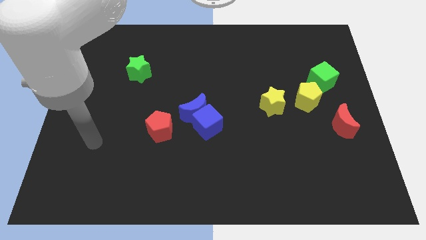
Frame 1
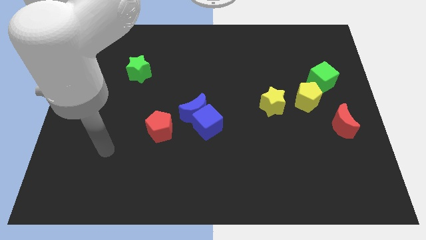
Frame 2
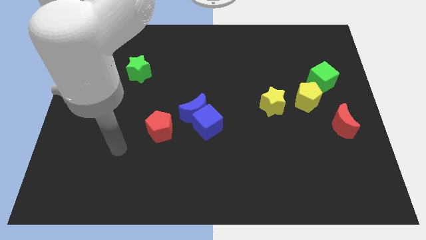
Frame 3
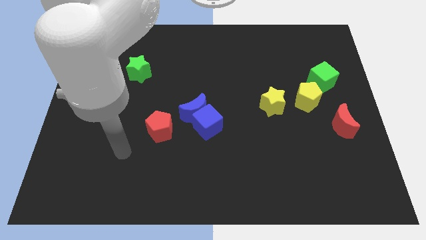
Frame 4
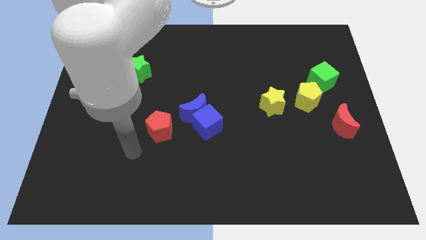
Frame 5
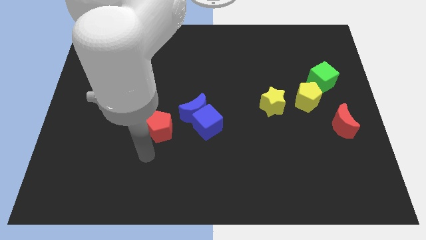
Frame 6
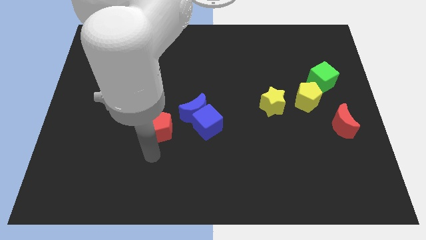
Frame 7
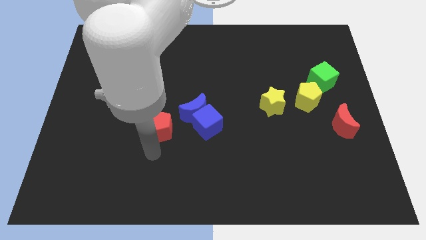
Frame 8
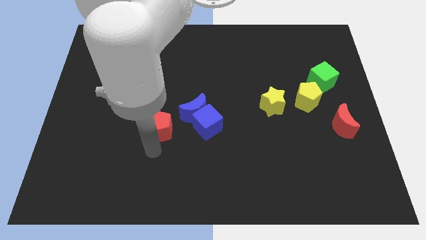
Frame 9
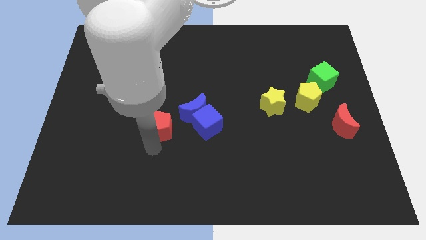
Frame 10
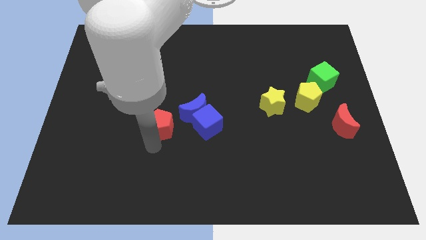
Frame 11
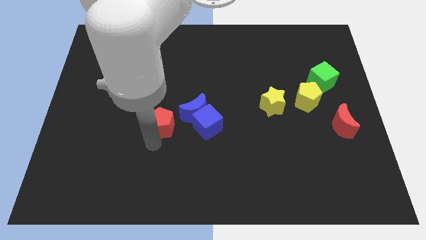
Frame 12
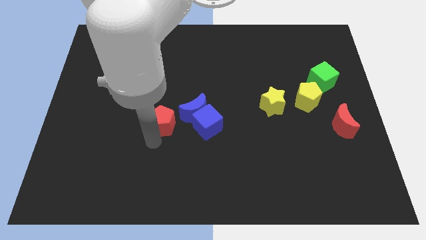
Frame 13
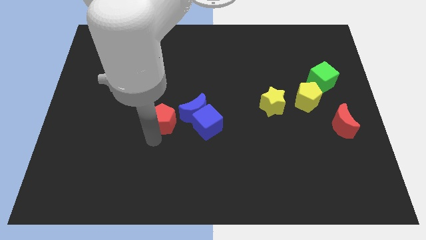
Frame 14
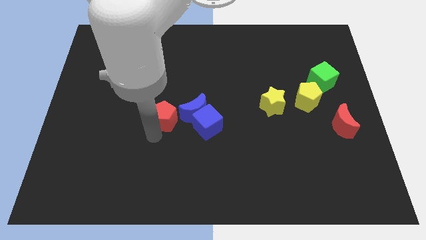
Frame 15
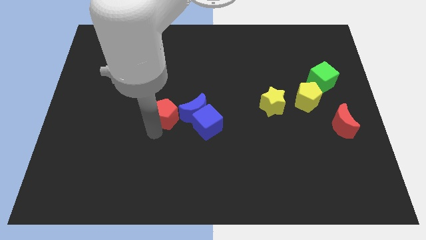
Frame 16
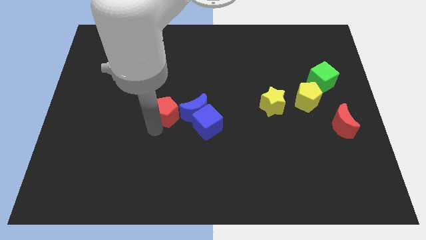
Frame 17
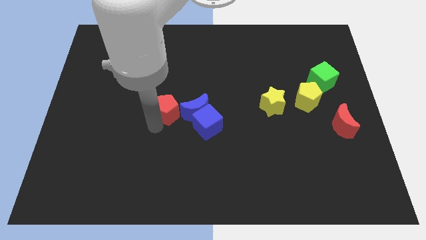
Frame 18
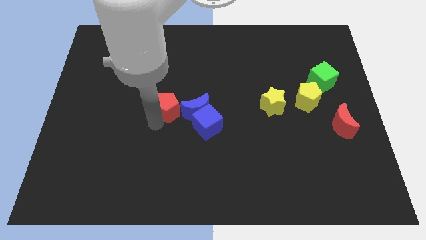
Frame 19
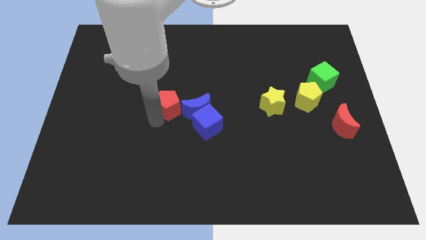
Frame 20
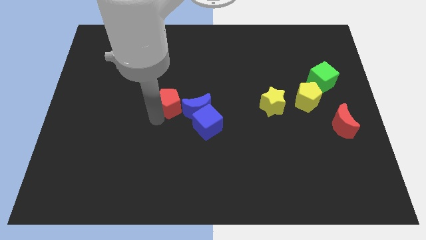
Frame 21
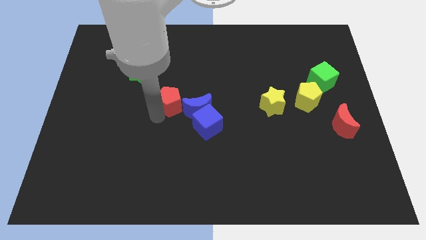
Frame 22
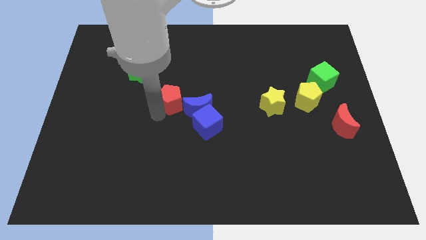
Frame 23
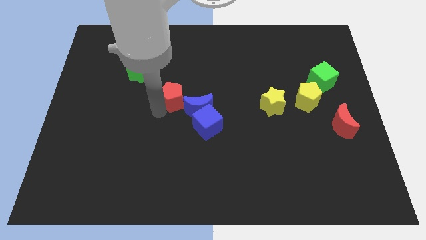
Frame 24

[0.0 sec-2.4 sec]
move the red pentagon diagonally upwards and right a little bit

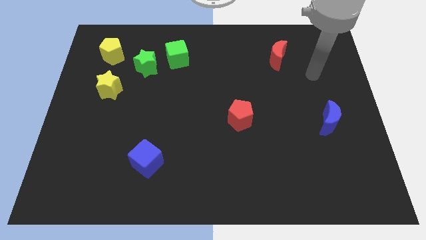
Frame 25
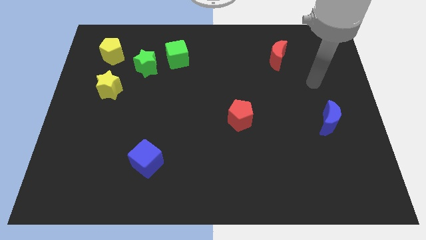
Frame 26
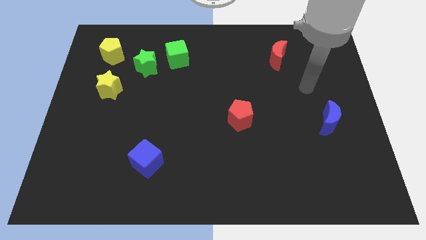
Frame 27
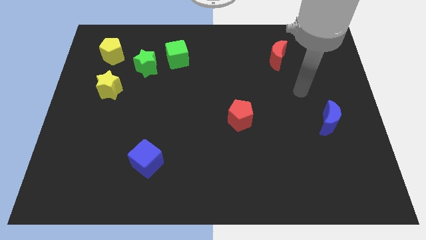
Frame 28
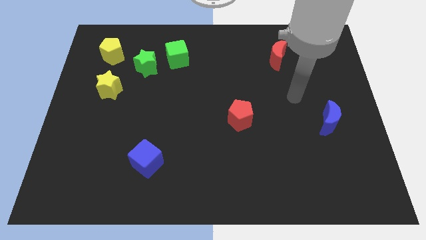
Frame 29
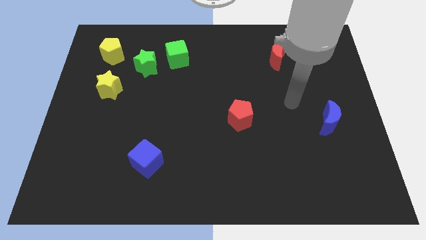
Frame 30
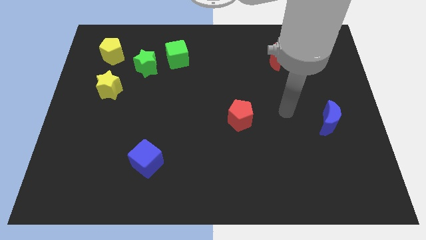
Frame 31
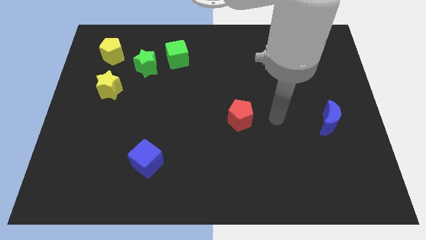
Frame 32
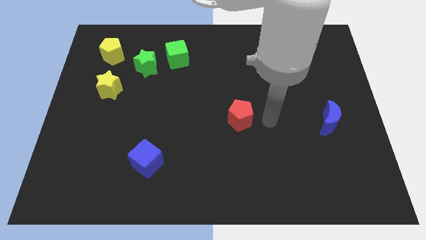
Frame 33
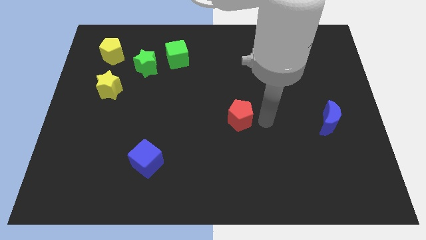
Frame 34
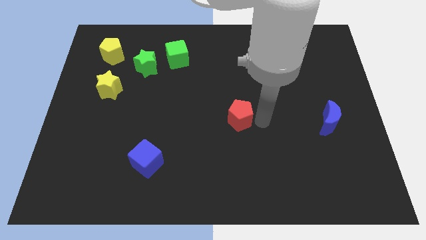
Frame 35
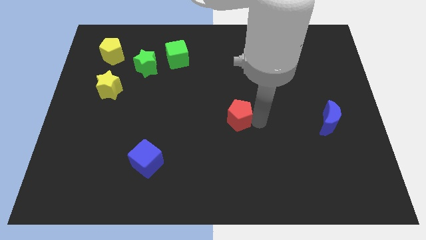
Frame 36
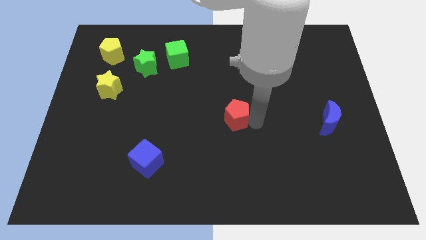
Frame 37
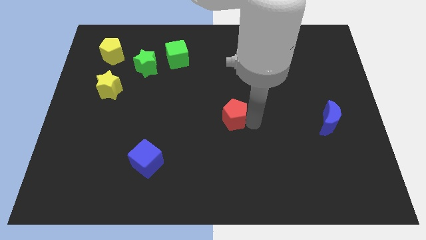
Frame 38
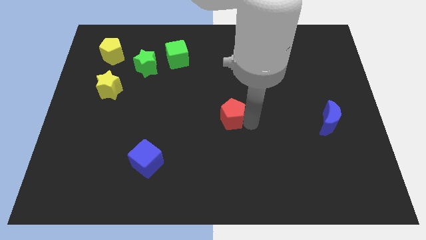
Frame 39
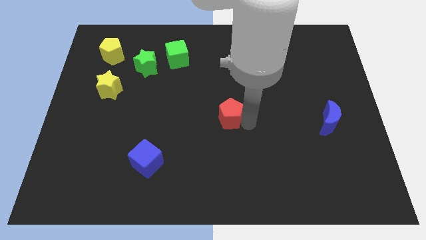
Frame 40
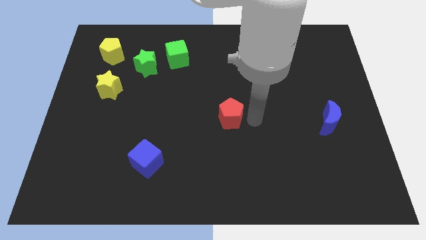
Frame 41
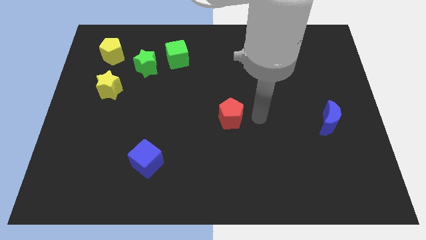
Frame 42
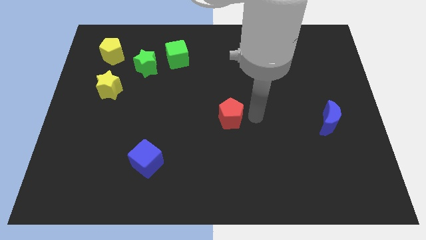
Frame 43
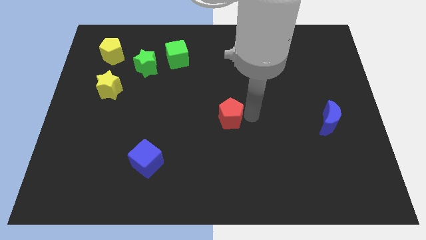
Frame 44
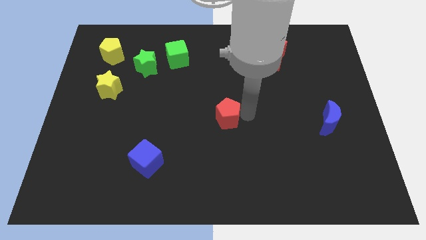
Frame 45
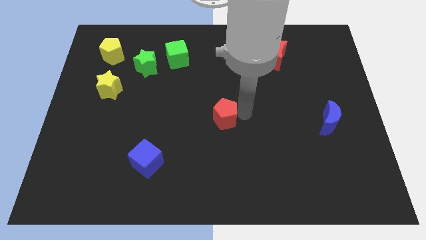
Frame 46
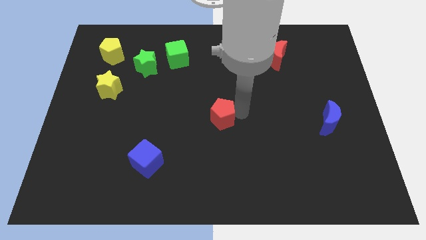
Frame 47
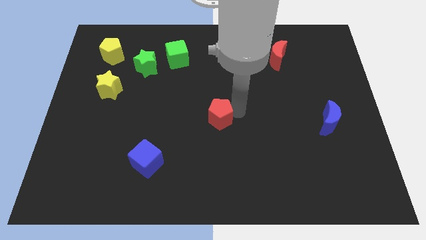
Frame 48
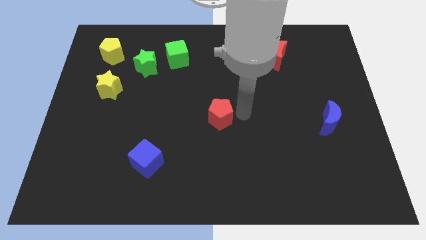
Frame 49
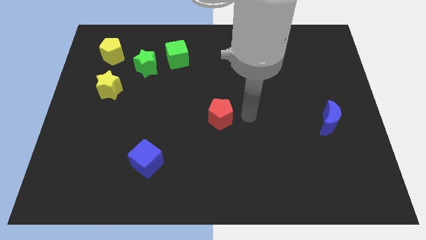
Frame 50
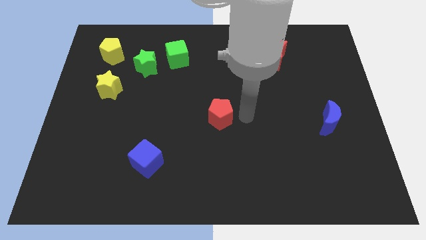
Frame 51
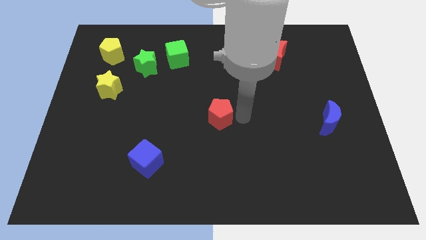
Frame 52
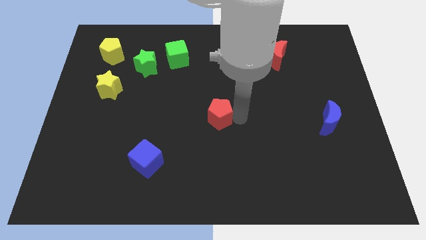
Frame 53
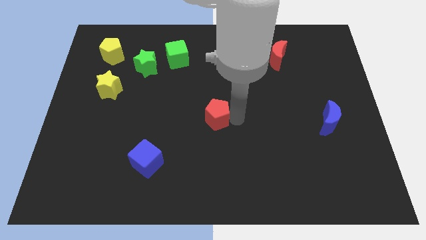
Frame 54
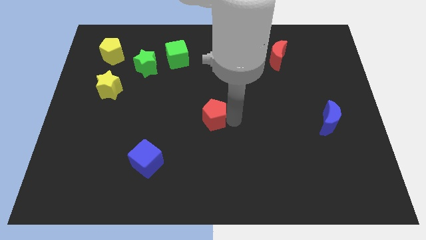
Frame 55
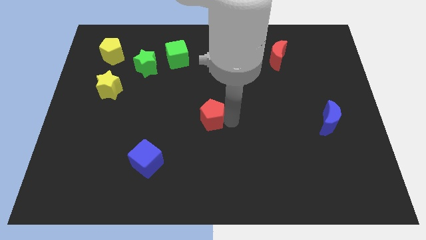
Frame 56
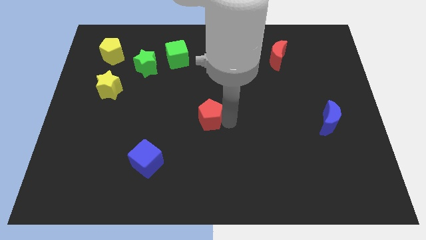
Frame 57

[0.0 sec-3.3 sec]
move the red pentagon slightly left

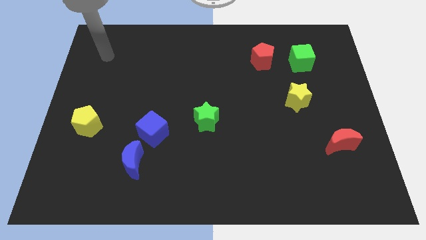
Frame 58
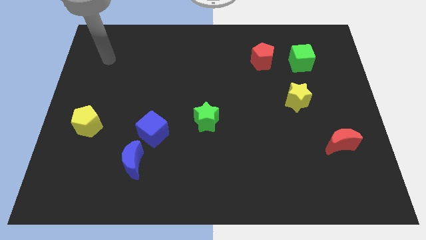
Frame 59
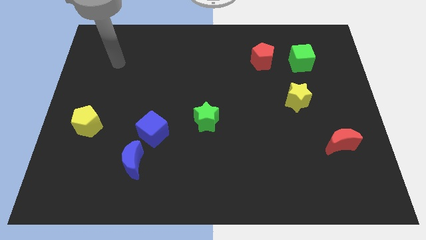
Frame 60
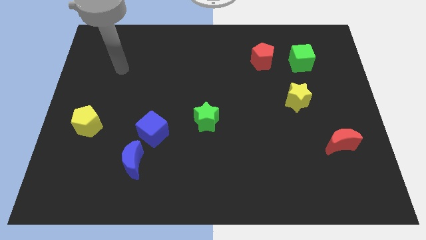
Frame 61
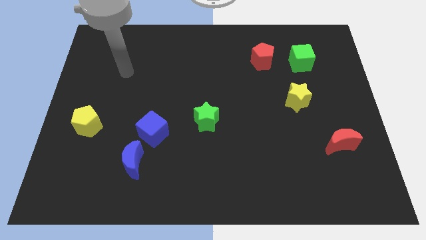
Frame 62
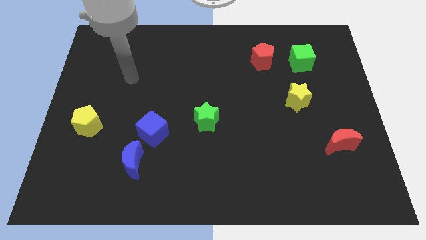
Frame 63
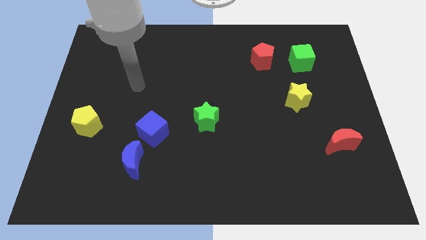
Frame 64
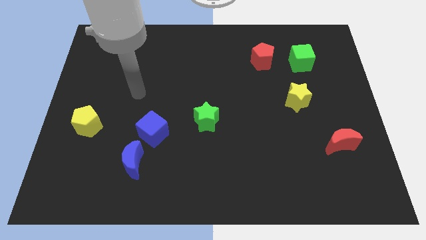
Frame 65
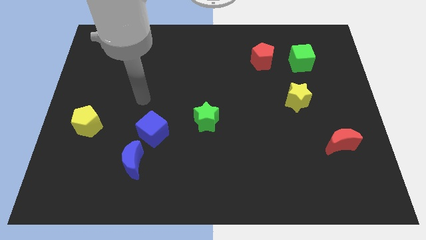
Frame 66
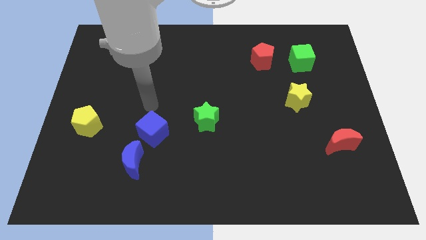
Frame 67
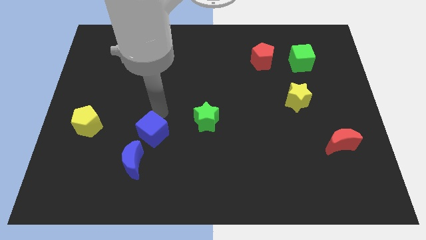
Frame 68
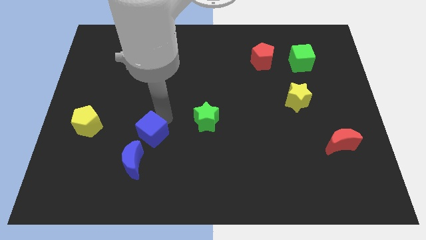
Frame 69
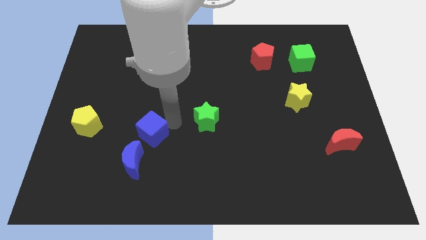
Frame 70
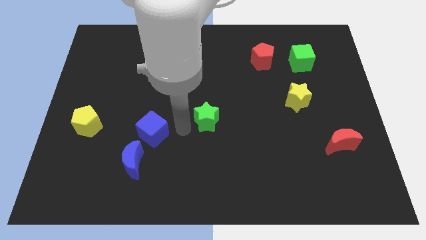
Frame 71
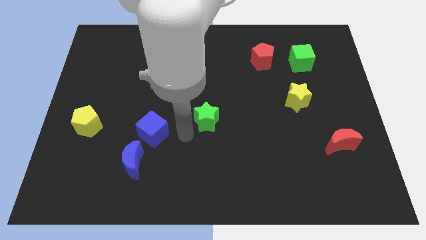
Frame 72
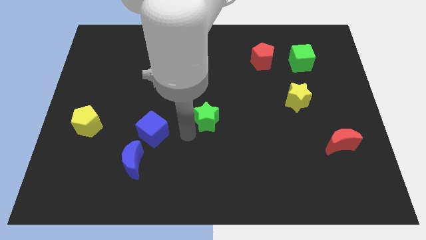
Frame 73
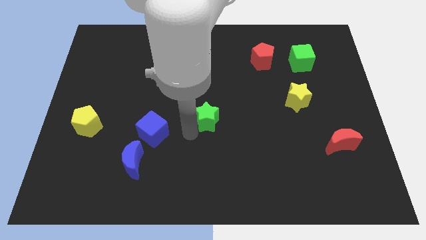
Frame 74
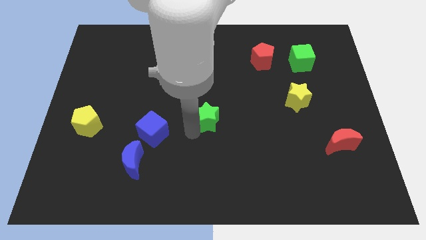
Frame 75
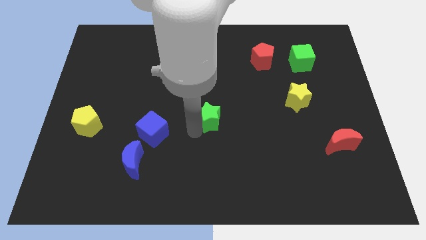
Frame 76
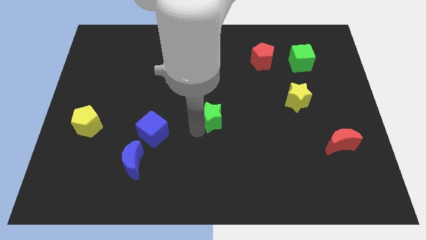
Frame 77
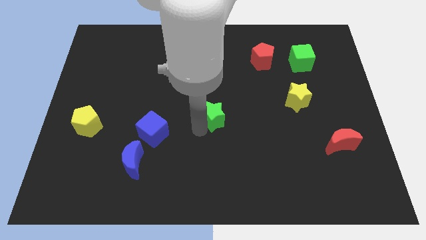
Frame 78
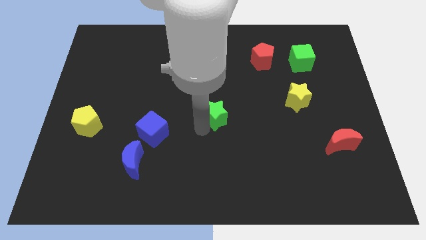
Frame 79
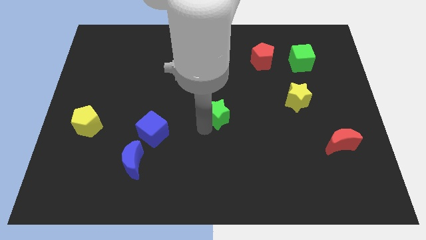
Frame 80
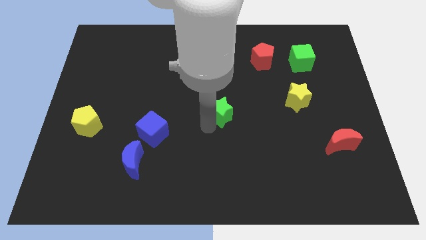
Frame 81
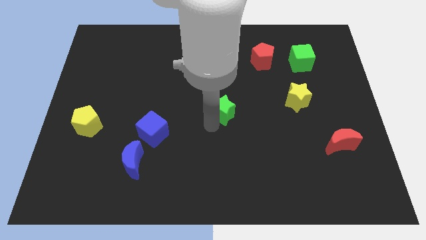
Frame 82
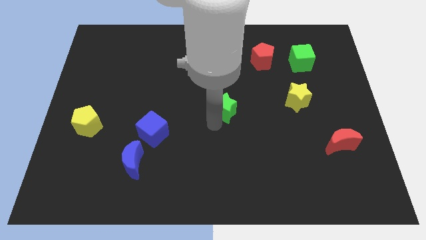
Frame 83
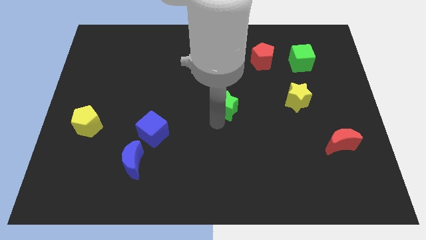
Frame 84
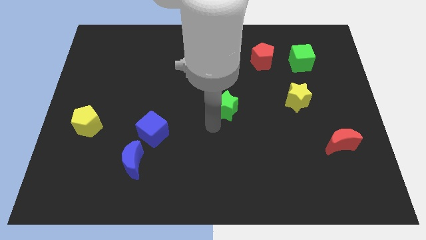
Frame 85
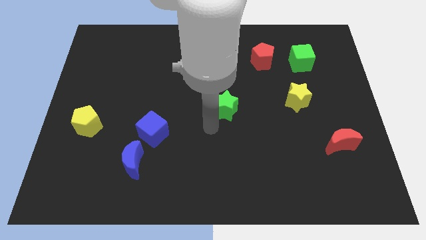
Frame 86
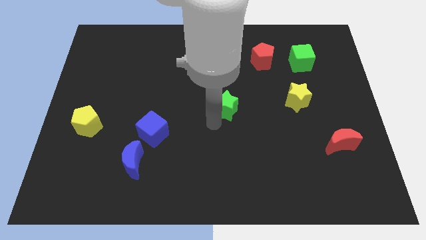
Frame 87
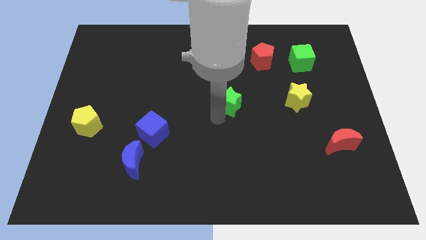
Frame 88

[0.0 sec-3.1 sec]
slightly push the green star upwards and to the right
